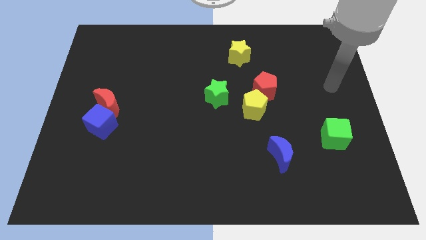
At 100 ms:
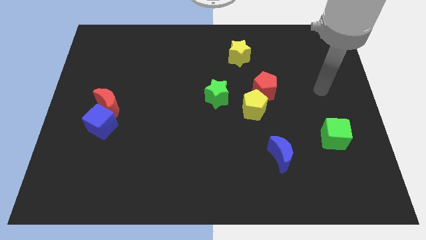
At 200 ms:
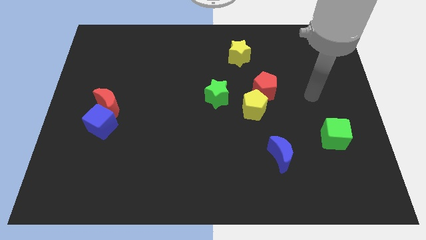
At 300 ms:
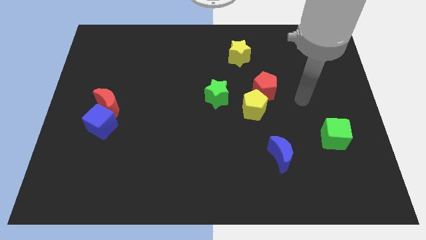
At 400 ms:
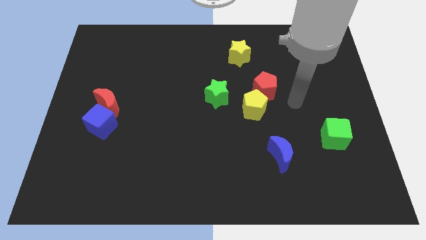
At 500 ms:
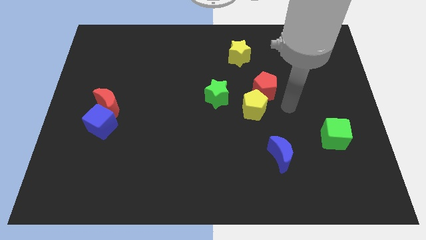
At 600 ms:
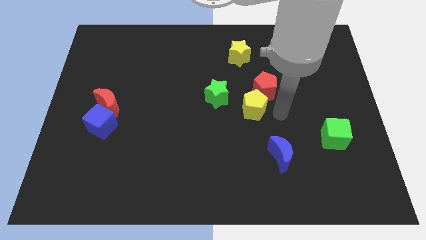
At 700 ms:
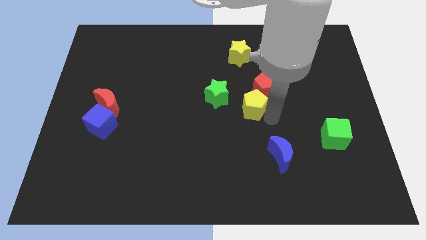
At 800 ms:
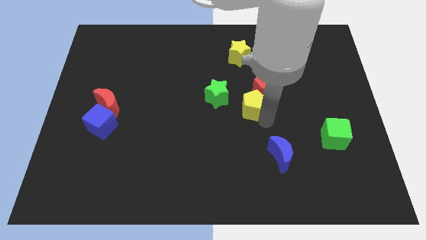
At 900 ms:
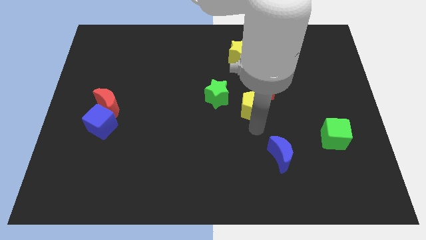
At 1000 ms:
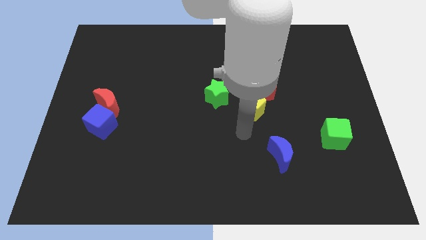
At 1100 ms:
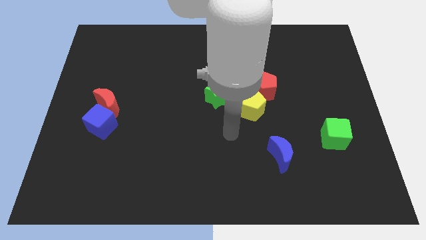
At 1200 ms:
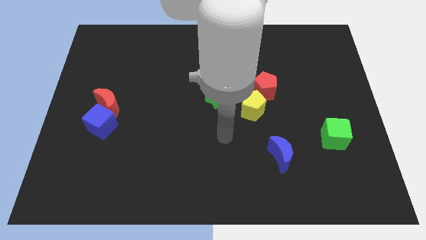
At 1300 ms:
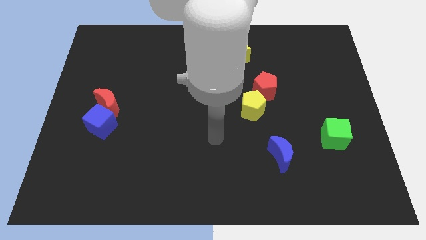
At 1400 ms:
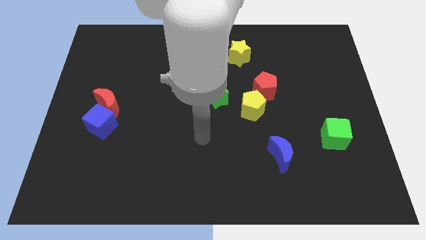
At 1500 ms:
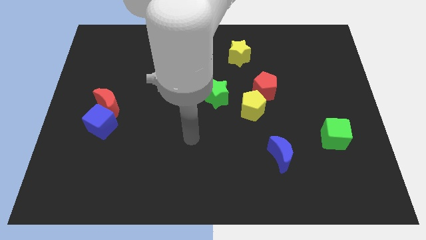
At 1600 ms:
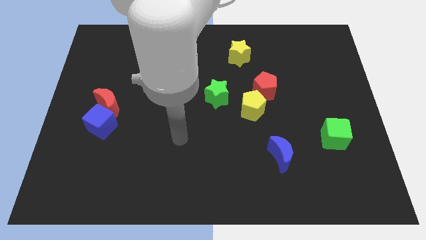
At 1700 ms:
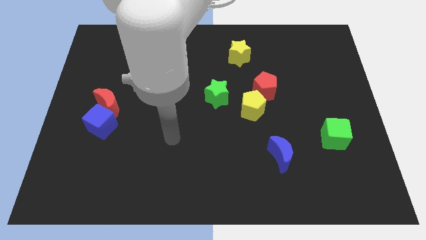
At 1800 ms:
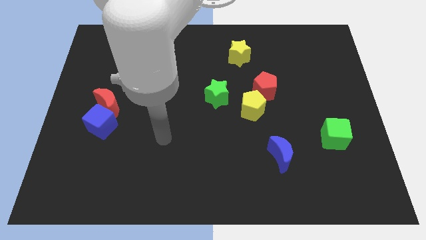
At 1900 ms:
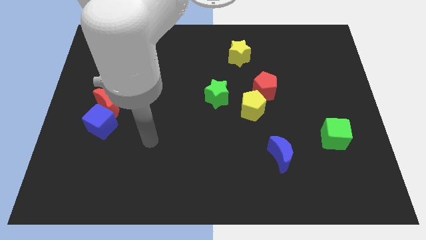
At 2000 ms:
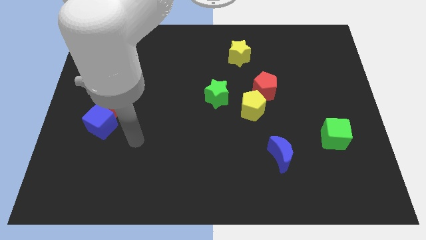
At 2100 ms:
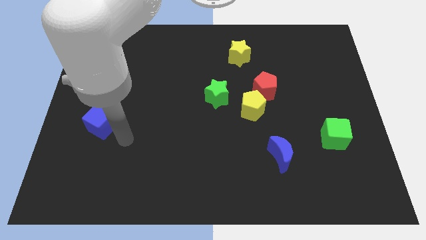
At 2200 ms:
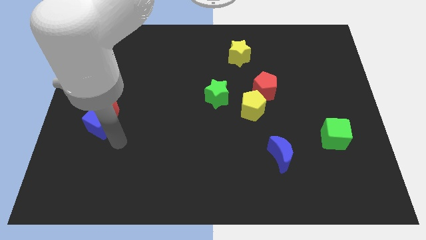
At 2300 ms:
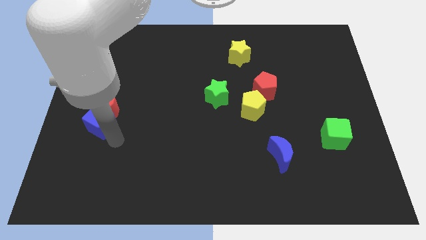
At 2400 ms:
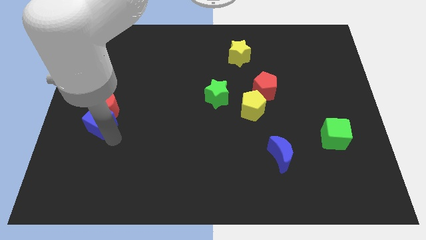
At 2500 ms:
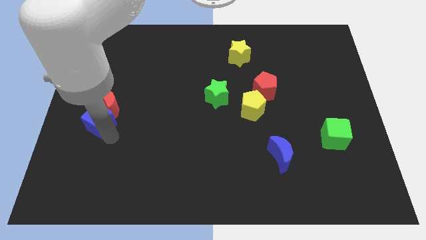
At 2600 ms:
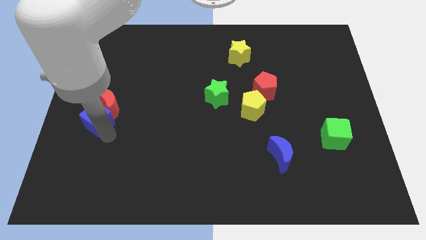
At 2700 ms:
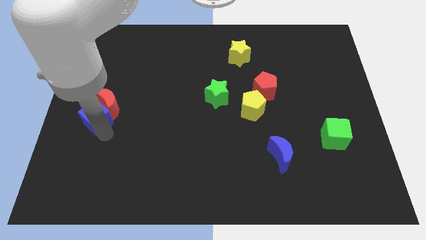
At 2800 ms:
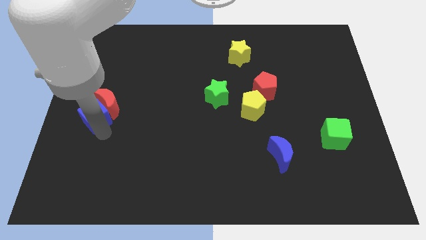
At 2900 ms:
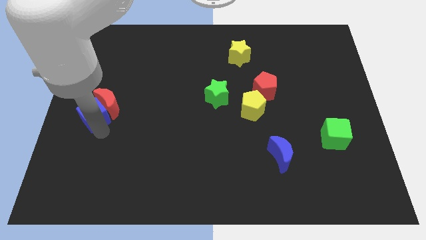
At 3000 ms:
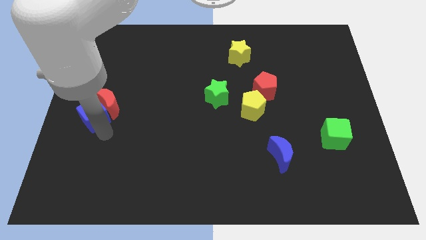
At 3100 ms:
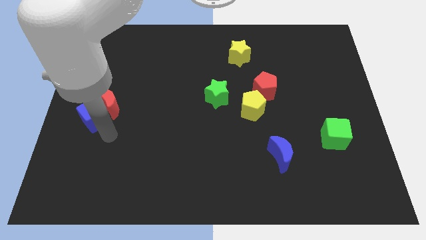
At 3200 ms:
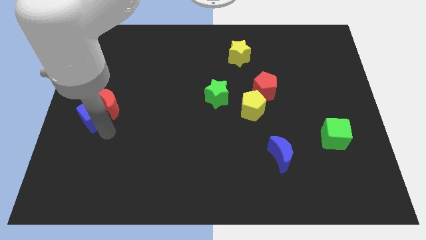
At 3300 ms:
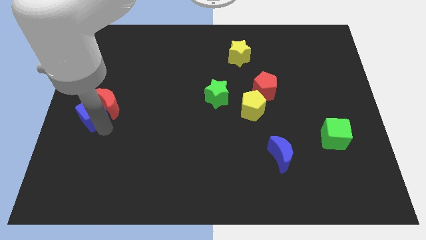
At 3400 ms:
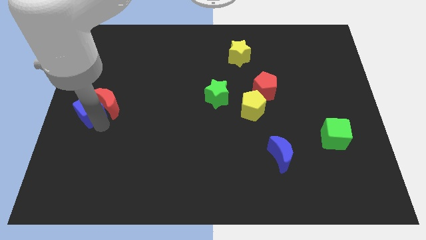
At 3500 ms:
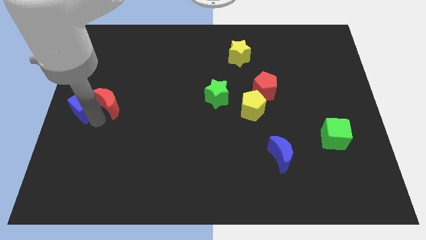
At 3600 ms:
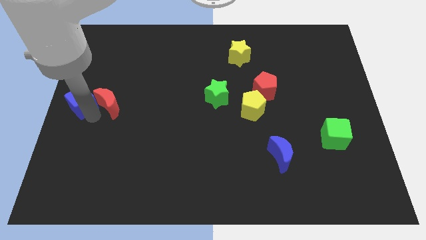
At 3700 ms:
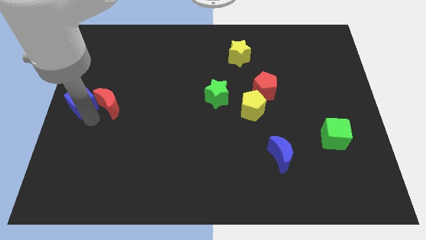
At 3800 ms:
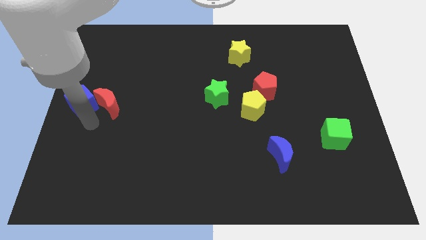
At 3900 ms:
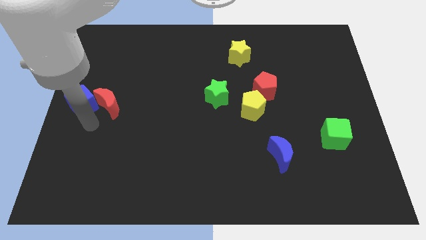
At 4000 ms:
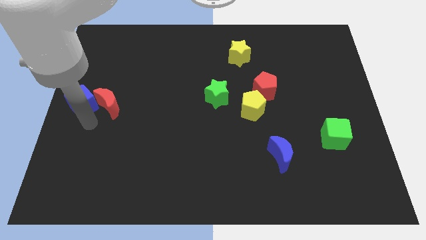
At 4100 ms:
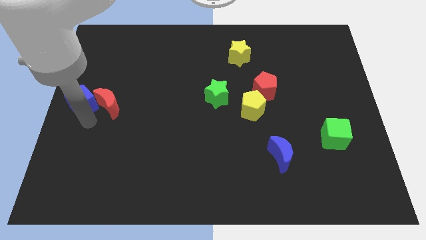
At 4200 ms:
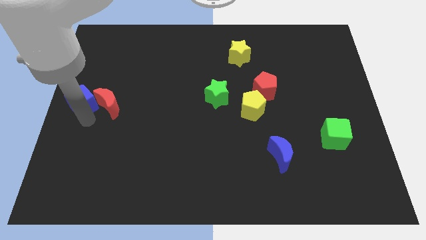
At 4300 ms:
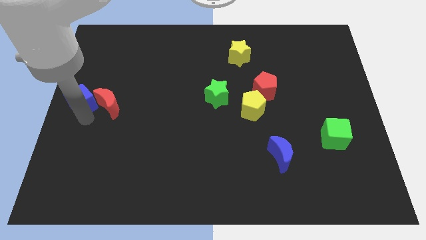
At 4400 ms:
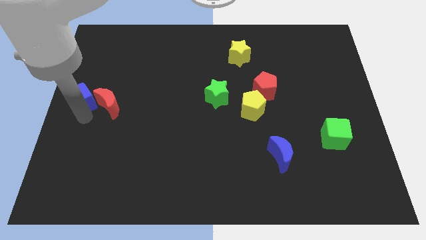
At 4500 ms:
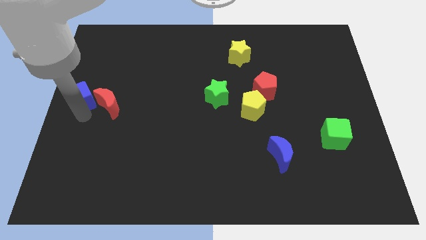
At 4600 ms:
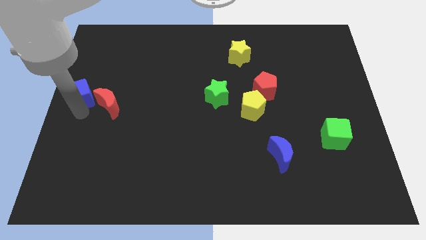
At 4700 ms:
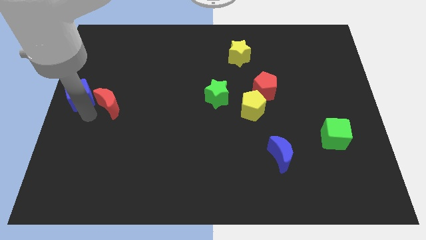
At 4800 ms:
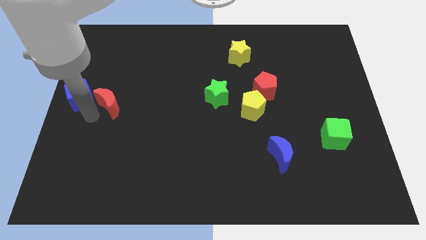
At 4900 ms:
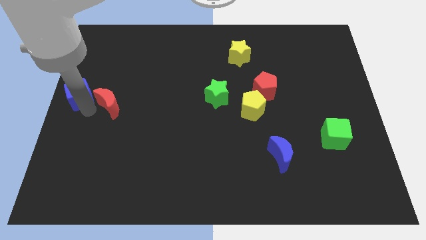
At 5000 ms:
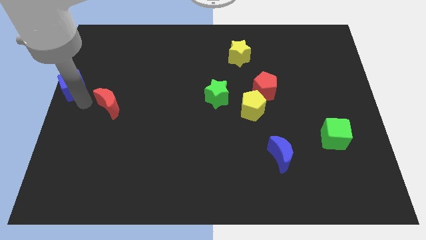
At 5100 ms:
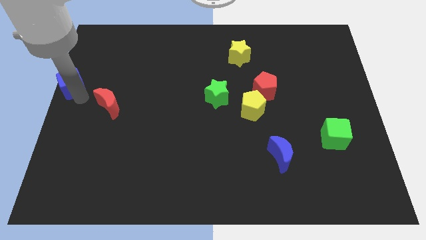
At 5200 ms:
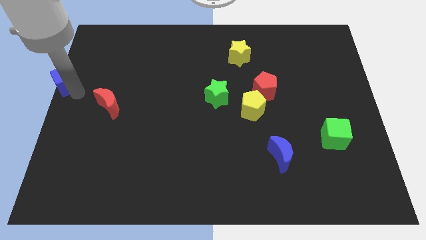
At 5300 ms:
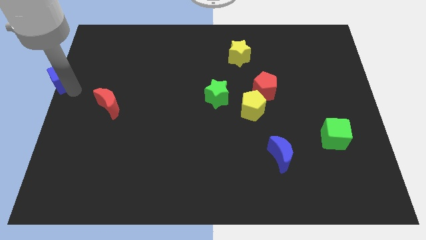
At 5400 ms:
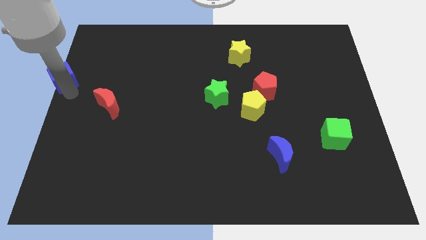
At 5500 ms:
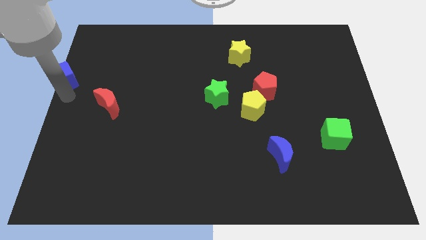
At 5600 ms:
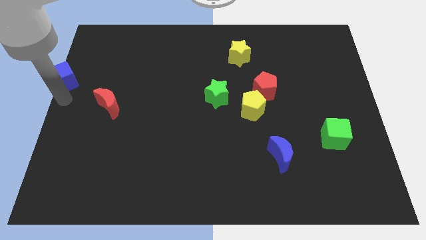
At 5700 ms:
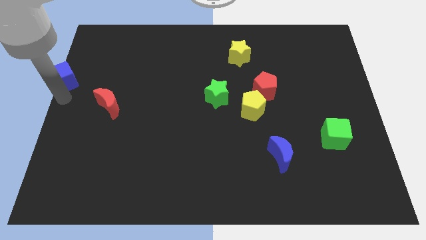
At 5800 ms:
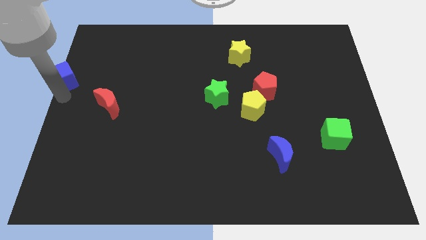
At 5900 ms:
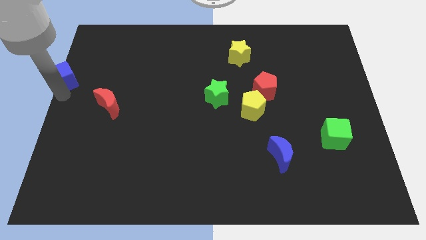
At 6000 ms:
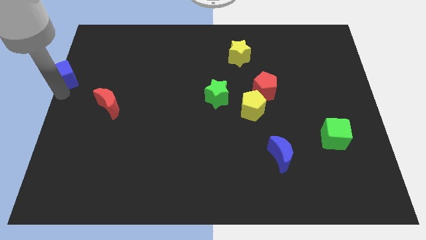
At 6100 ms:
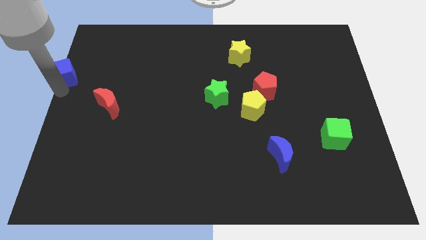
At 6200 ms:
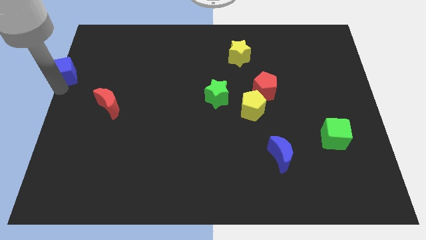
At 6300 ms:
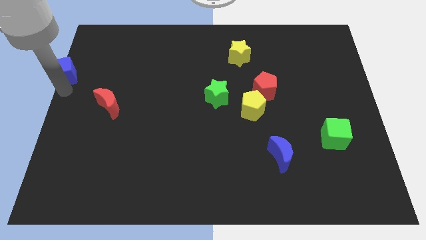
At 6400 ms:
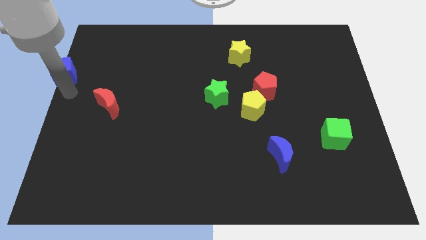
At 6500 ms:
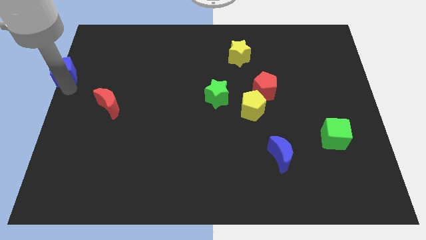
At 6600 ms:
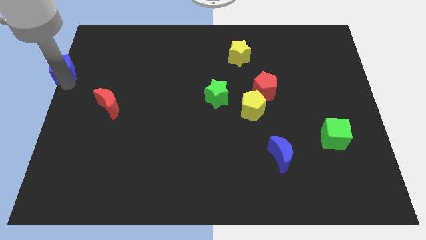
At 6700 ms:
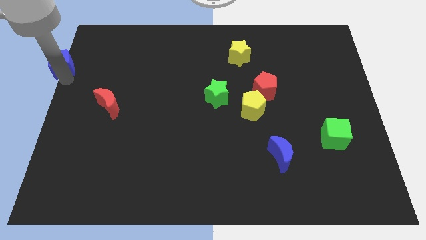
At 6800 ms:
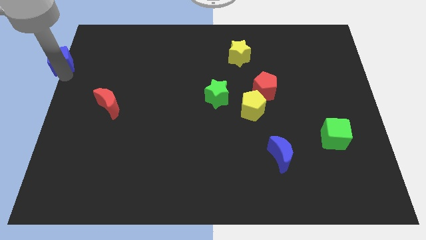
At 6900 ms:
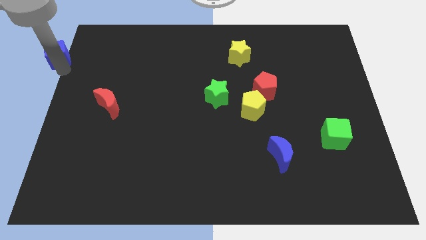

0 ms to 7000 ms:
move the blue cube to the top left of the board
